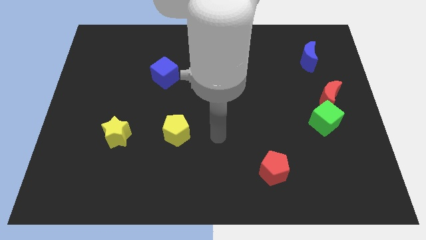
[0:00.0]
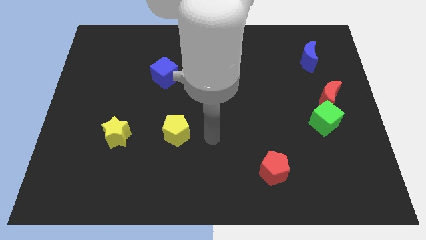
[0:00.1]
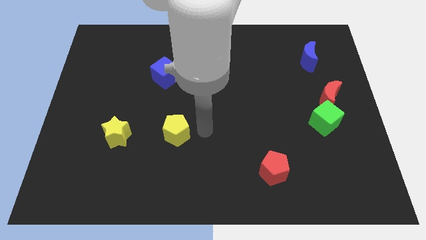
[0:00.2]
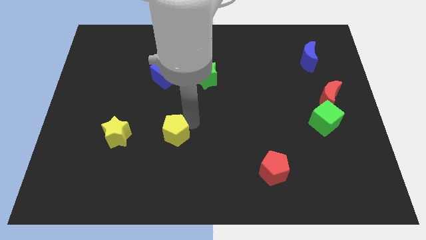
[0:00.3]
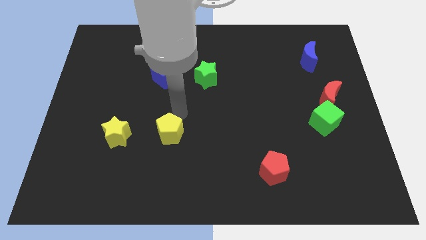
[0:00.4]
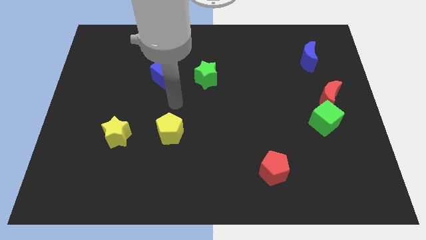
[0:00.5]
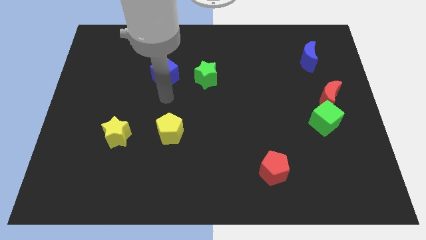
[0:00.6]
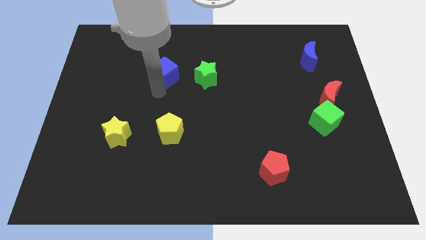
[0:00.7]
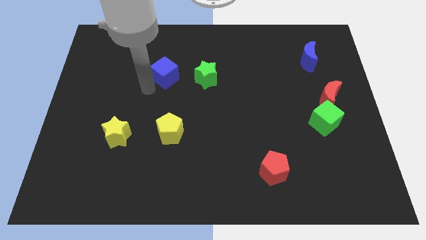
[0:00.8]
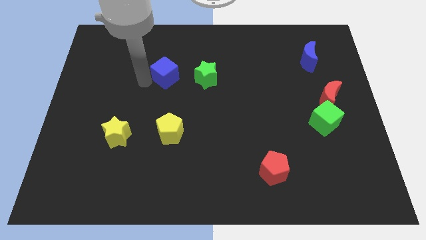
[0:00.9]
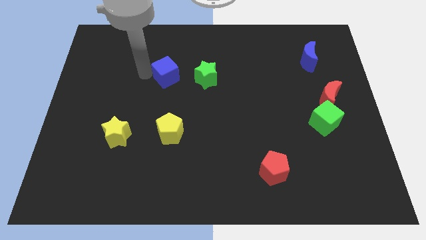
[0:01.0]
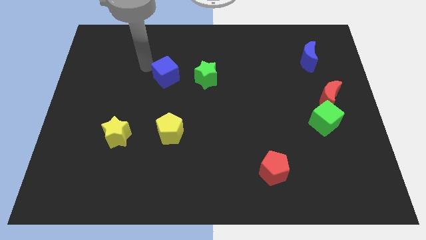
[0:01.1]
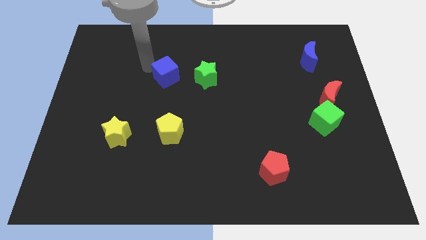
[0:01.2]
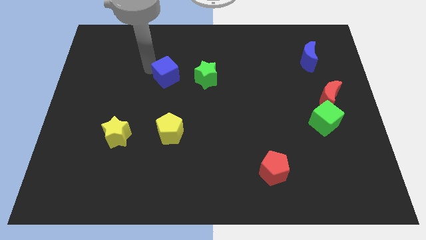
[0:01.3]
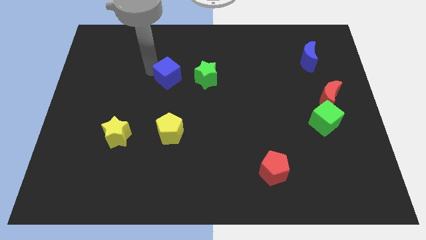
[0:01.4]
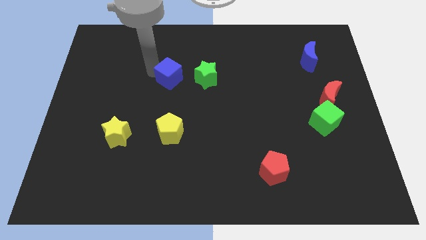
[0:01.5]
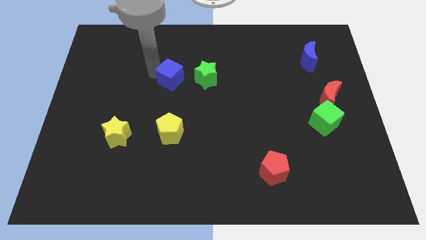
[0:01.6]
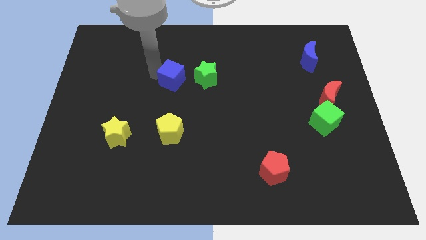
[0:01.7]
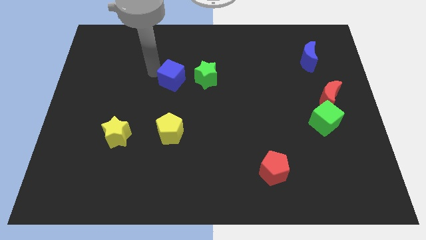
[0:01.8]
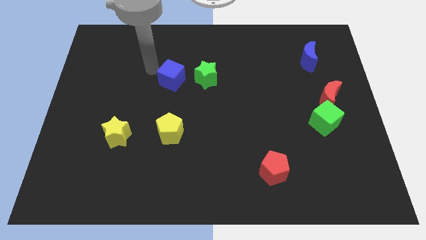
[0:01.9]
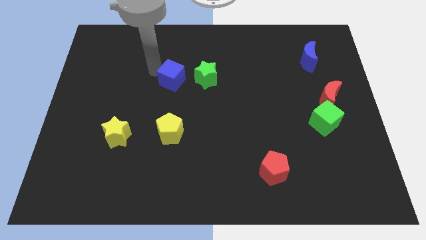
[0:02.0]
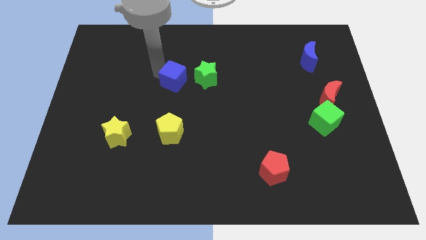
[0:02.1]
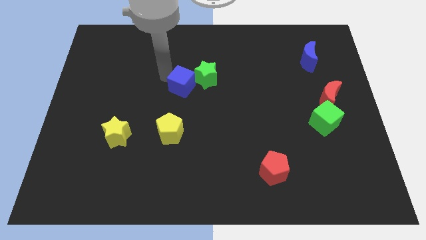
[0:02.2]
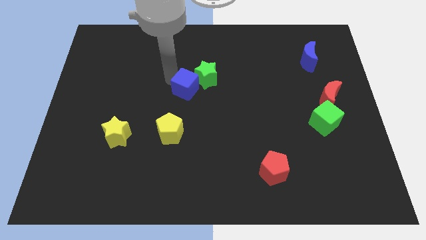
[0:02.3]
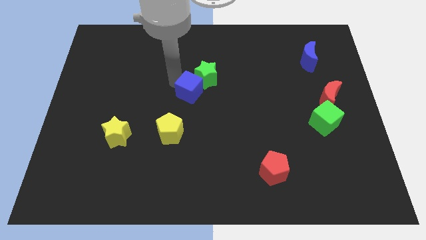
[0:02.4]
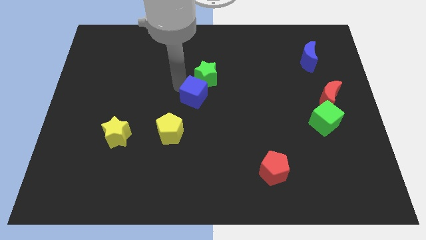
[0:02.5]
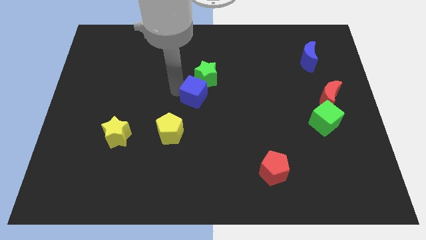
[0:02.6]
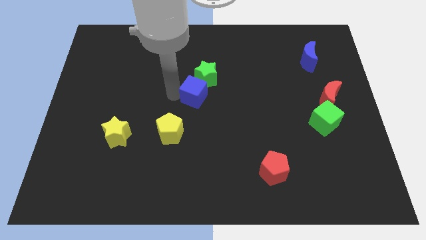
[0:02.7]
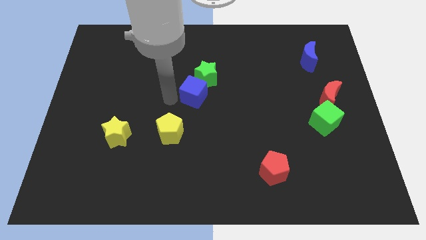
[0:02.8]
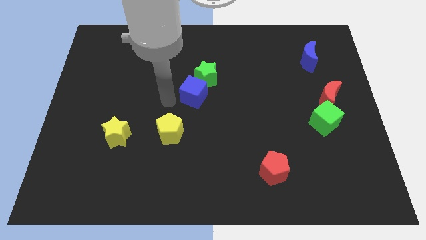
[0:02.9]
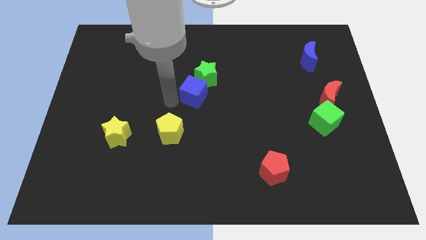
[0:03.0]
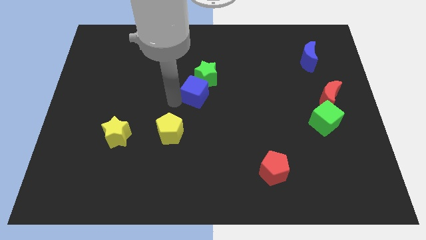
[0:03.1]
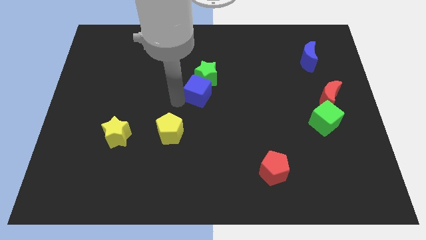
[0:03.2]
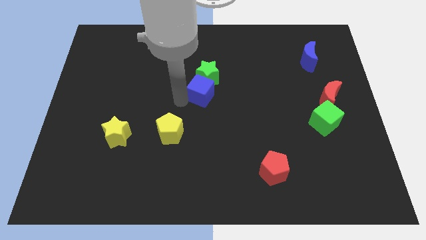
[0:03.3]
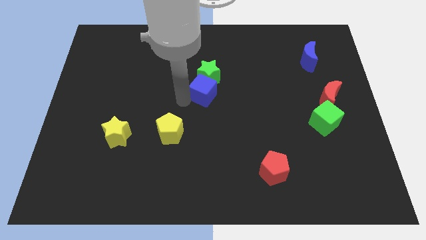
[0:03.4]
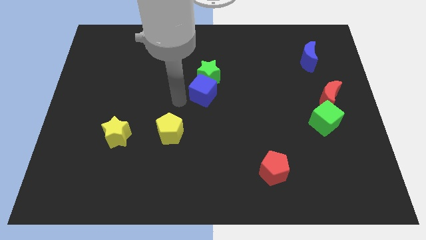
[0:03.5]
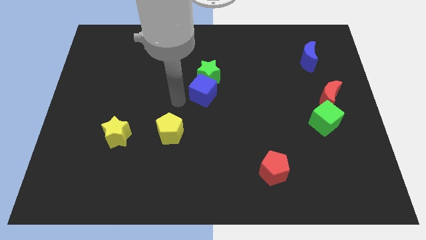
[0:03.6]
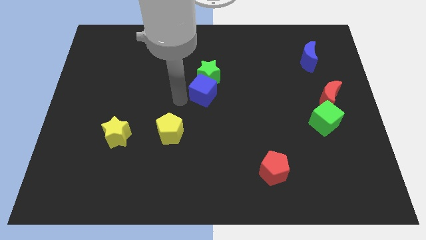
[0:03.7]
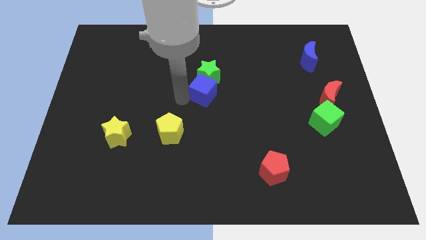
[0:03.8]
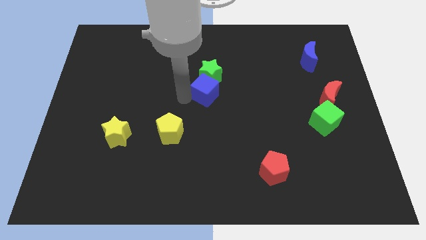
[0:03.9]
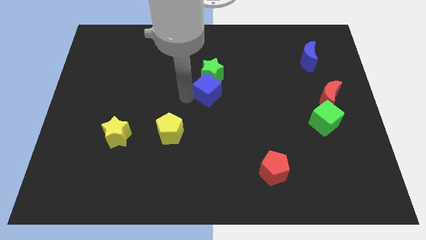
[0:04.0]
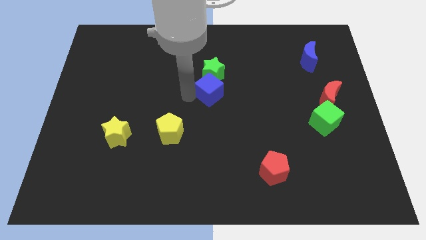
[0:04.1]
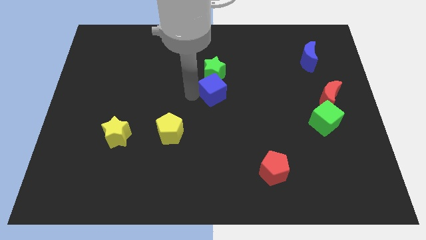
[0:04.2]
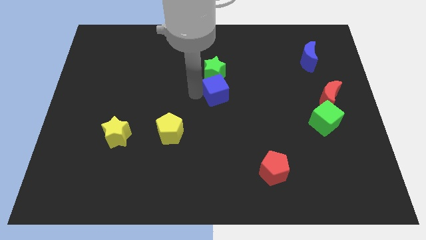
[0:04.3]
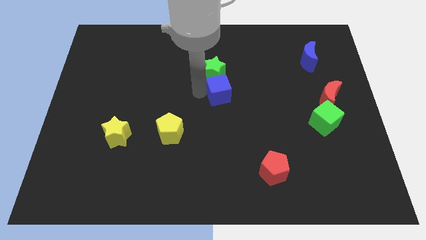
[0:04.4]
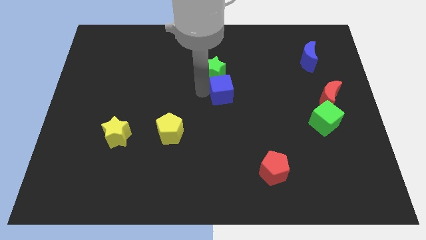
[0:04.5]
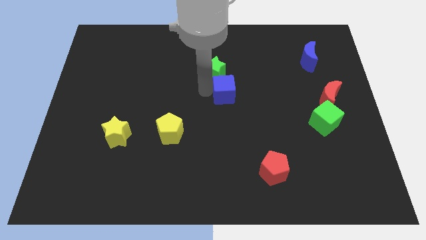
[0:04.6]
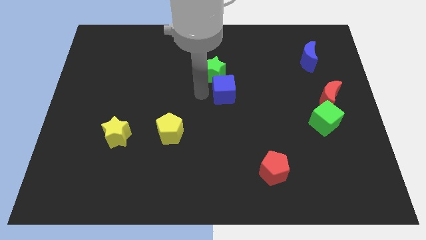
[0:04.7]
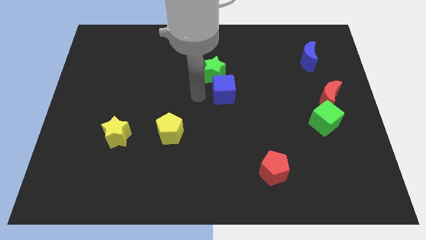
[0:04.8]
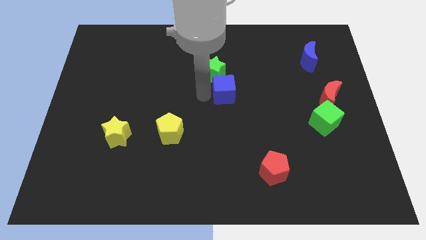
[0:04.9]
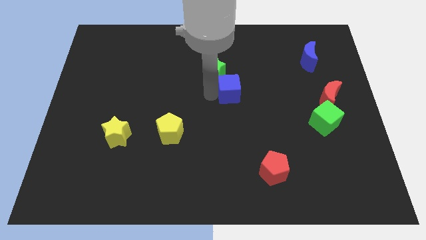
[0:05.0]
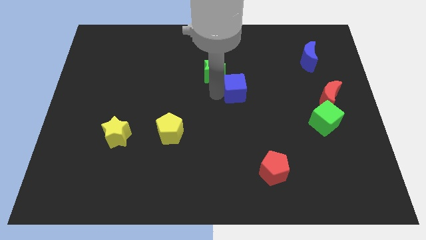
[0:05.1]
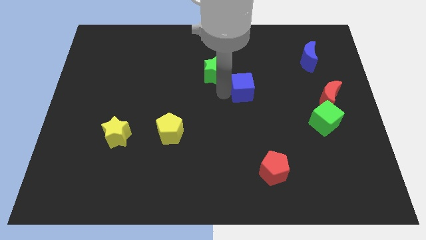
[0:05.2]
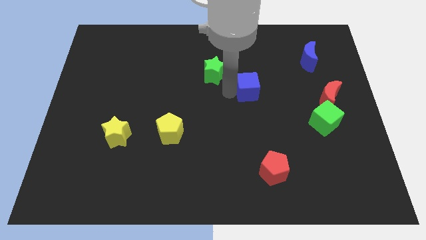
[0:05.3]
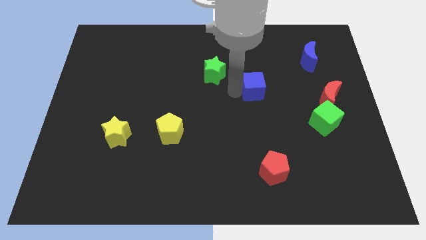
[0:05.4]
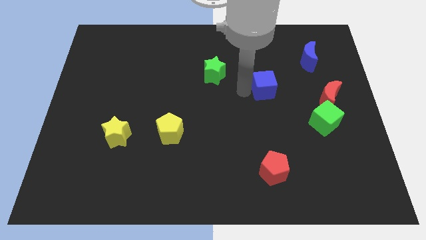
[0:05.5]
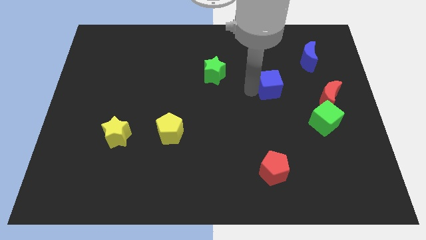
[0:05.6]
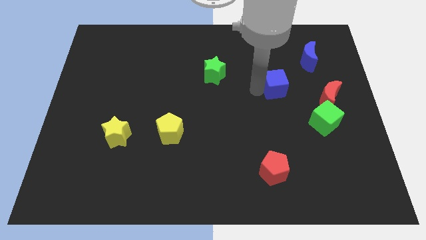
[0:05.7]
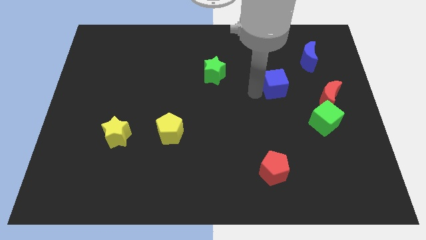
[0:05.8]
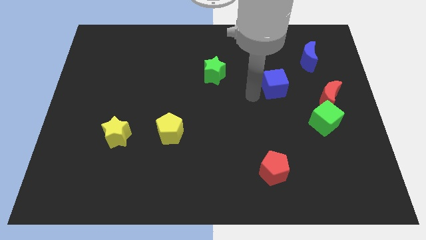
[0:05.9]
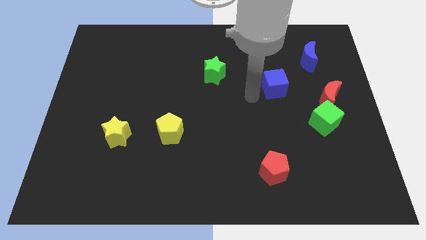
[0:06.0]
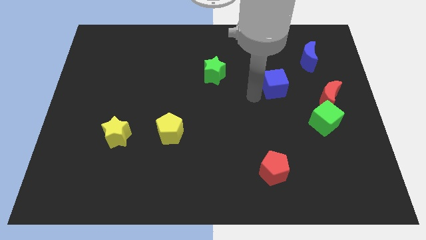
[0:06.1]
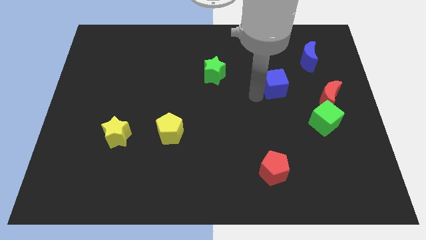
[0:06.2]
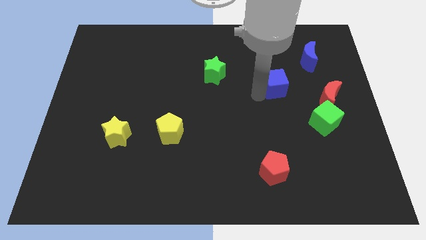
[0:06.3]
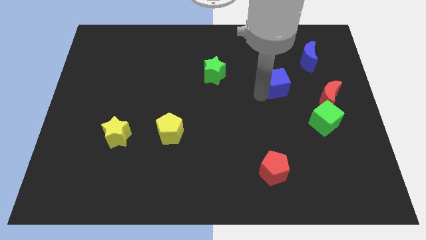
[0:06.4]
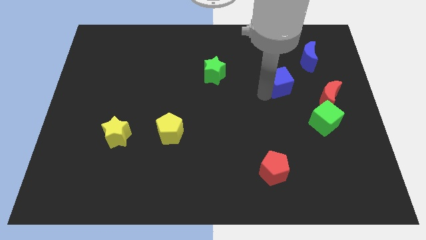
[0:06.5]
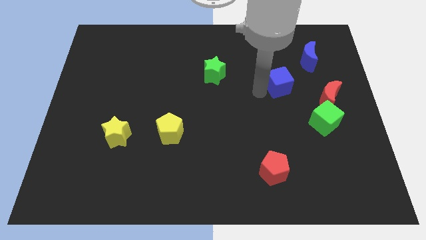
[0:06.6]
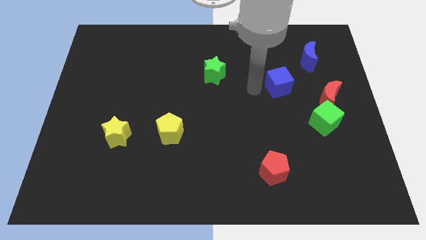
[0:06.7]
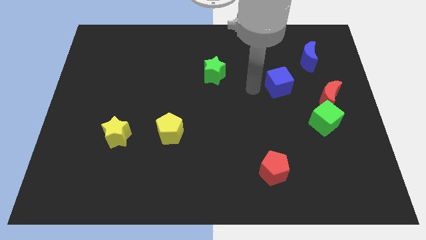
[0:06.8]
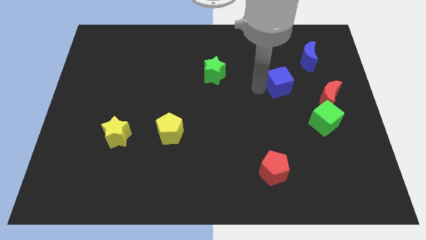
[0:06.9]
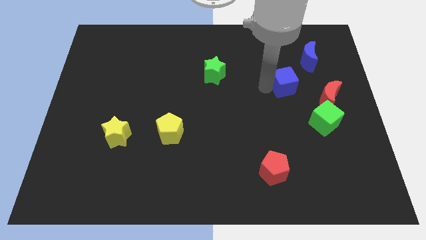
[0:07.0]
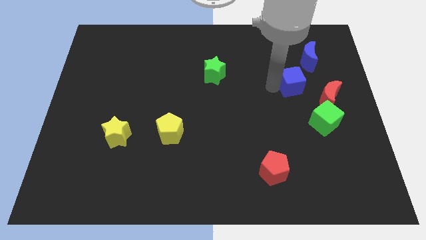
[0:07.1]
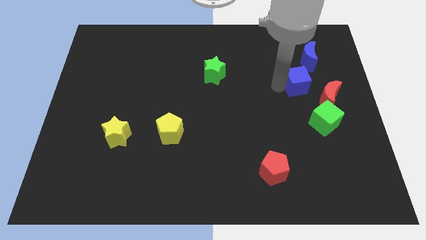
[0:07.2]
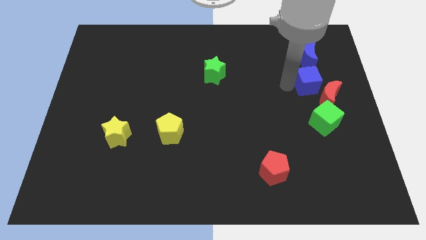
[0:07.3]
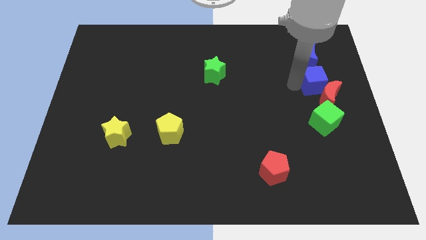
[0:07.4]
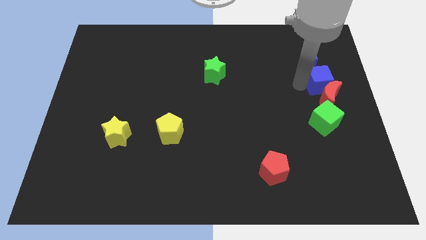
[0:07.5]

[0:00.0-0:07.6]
push the blue cube to the right side of the board
